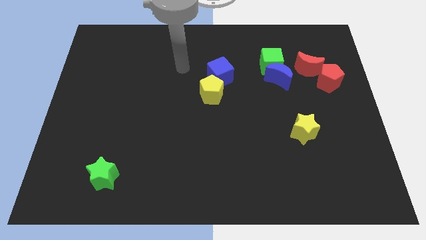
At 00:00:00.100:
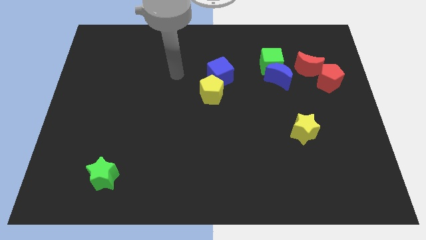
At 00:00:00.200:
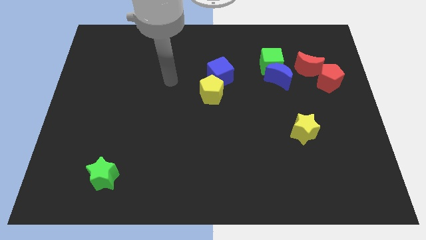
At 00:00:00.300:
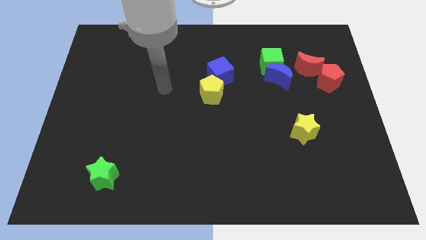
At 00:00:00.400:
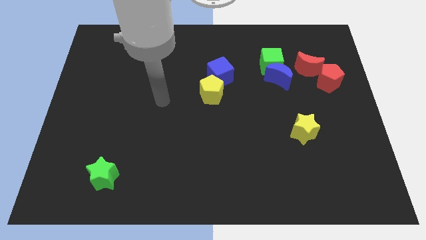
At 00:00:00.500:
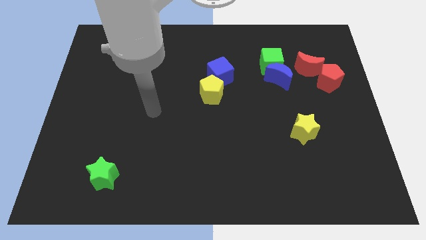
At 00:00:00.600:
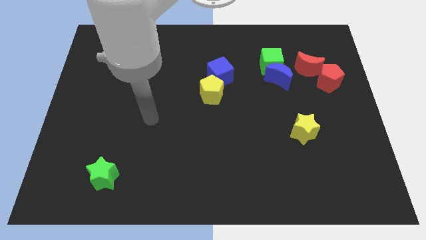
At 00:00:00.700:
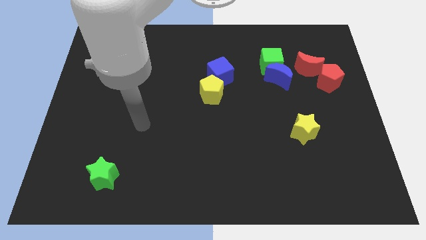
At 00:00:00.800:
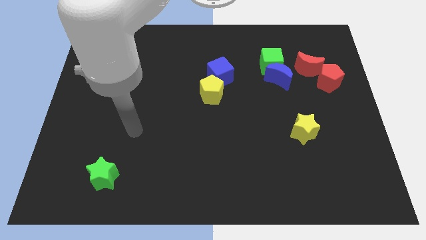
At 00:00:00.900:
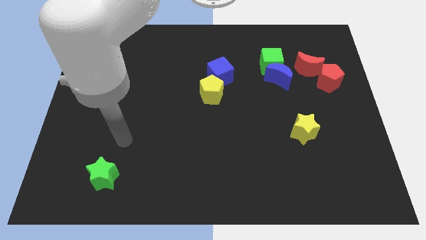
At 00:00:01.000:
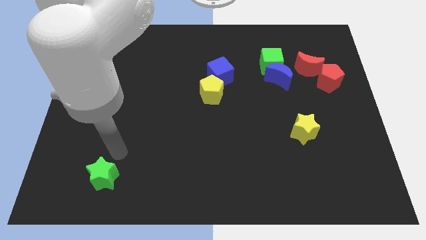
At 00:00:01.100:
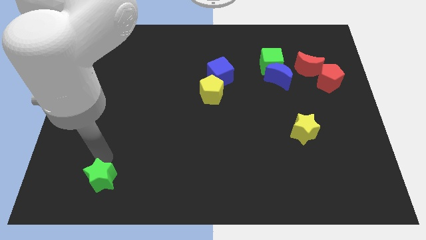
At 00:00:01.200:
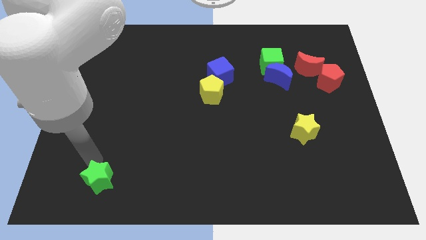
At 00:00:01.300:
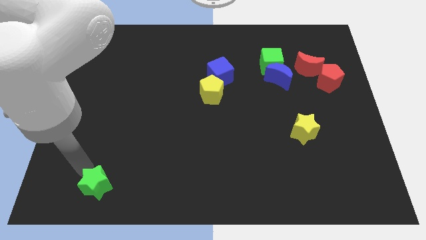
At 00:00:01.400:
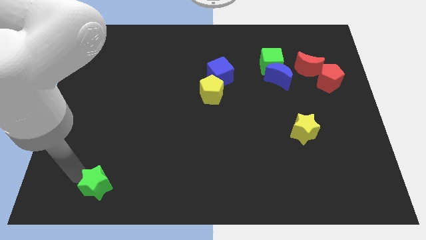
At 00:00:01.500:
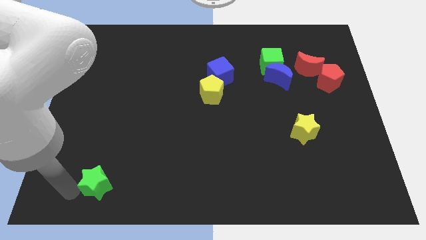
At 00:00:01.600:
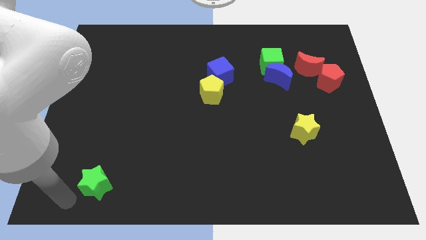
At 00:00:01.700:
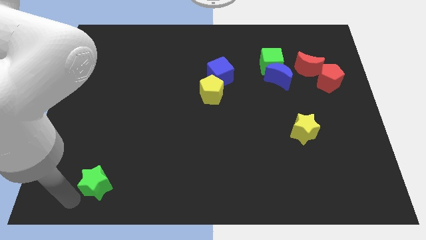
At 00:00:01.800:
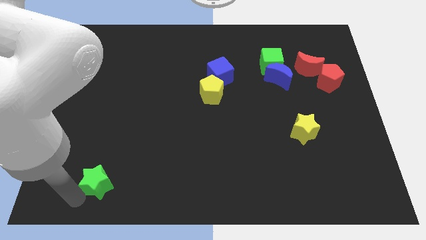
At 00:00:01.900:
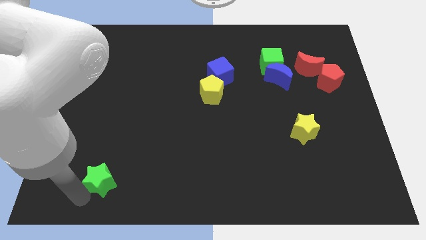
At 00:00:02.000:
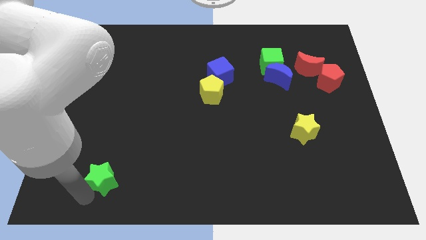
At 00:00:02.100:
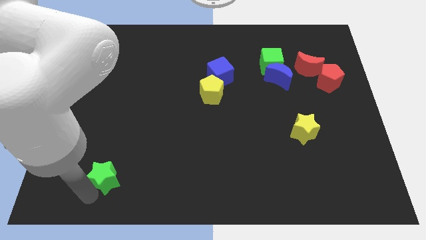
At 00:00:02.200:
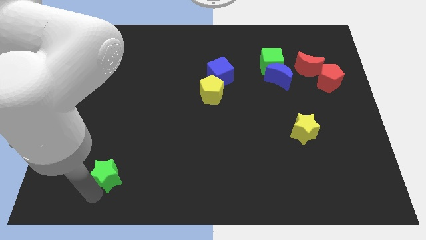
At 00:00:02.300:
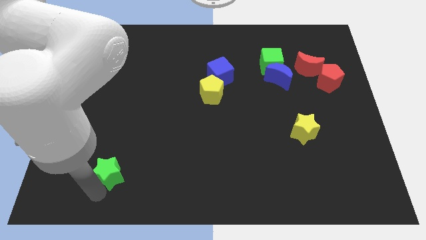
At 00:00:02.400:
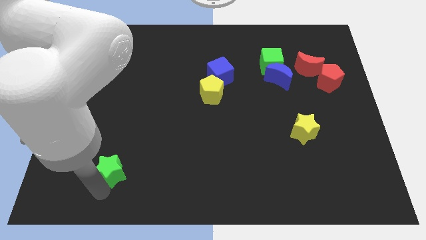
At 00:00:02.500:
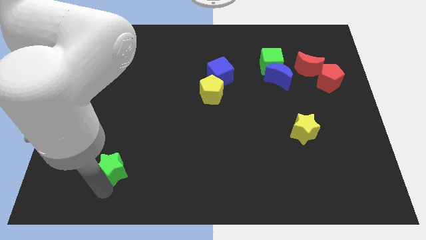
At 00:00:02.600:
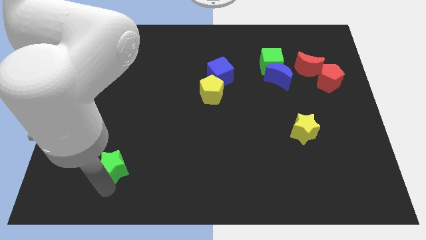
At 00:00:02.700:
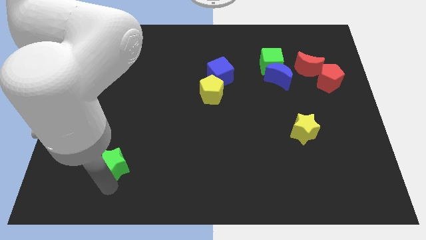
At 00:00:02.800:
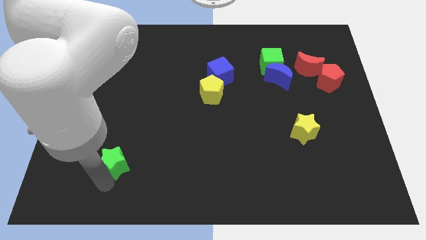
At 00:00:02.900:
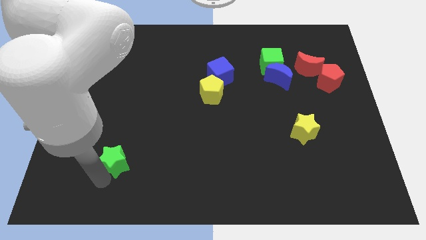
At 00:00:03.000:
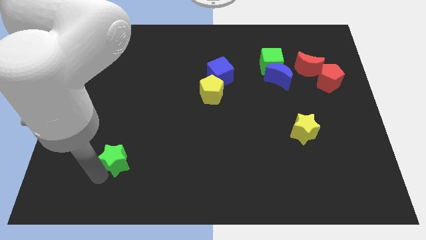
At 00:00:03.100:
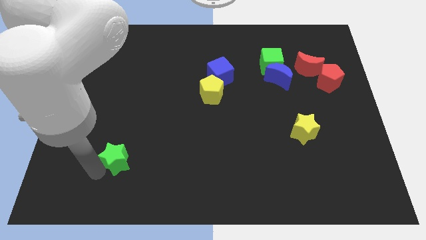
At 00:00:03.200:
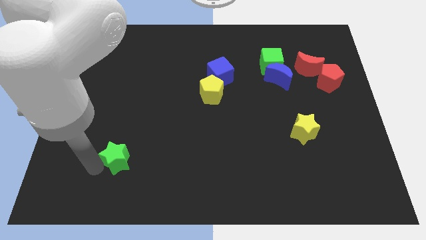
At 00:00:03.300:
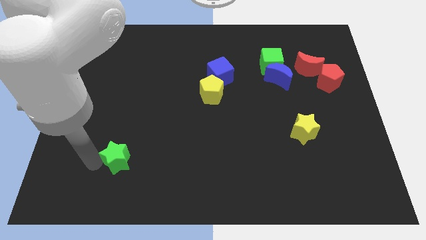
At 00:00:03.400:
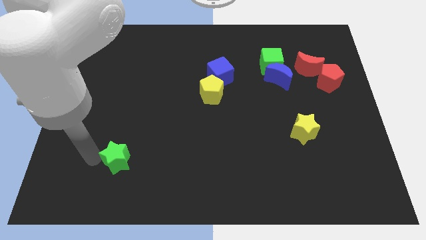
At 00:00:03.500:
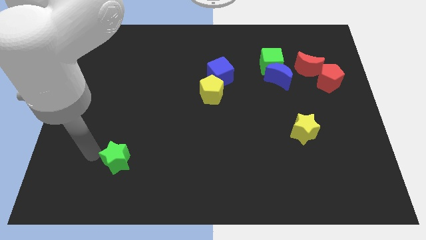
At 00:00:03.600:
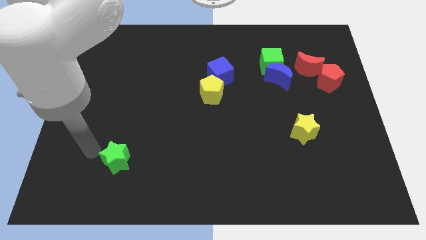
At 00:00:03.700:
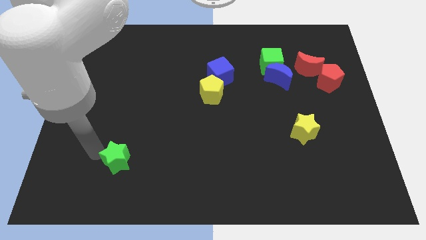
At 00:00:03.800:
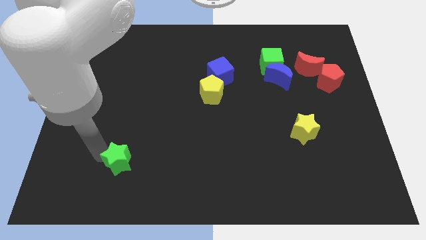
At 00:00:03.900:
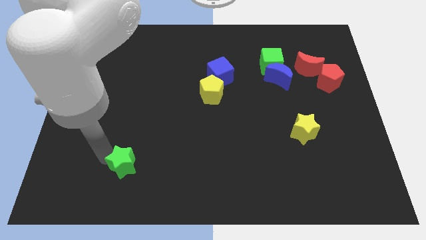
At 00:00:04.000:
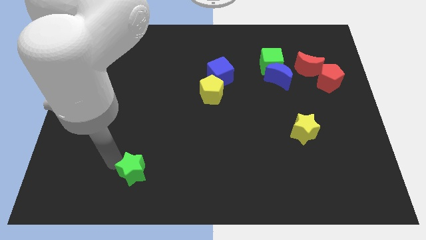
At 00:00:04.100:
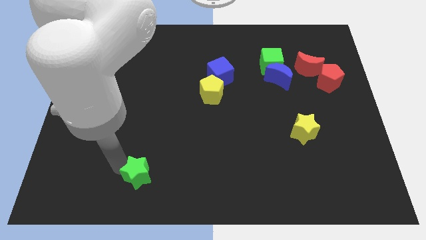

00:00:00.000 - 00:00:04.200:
move the green star right somewhat

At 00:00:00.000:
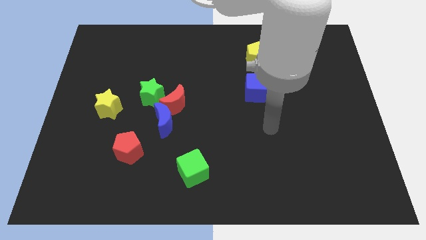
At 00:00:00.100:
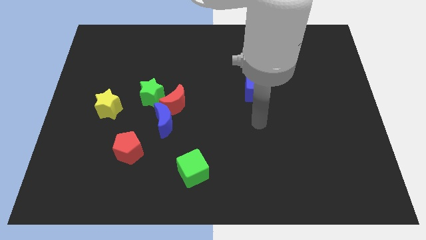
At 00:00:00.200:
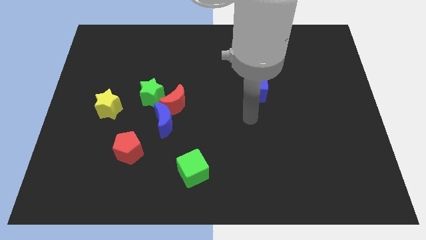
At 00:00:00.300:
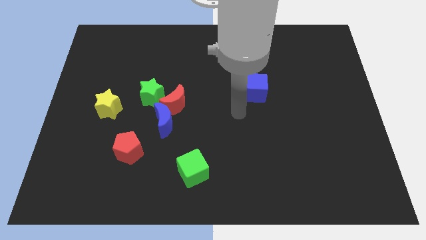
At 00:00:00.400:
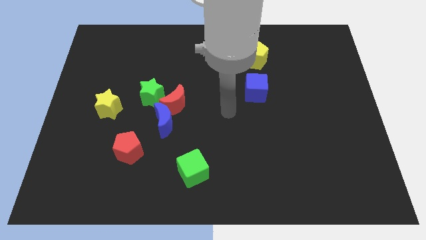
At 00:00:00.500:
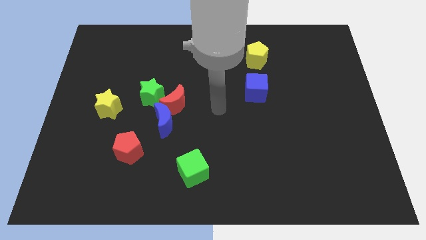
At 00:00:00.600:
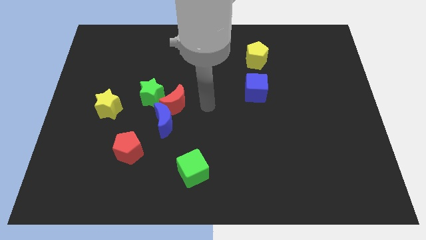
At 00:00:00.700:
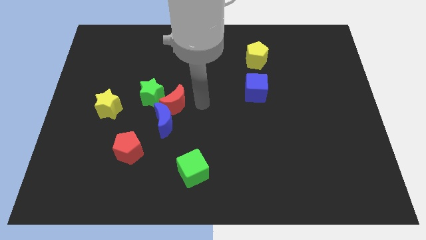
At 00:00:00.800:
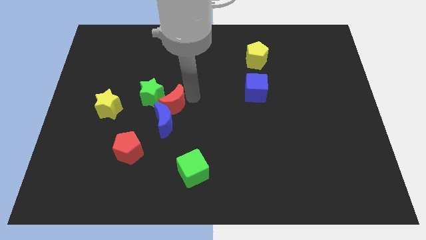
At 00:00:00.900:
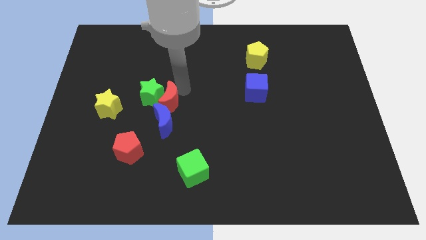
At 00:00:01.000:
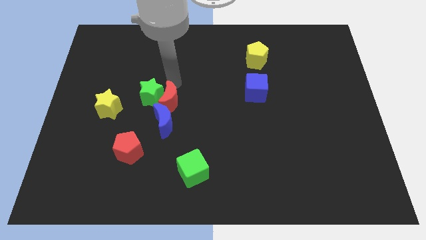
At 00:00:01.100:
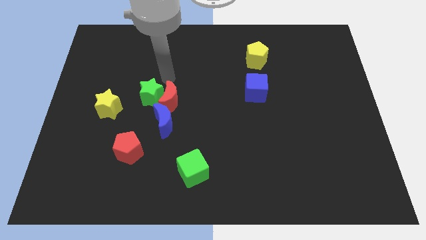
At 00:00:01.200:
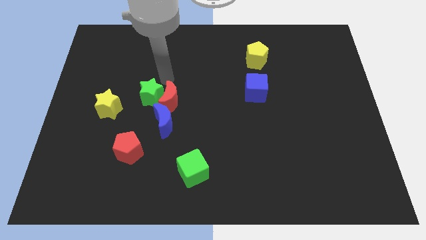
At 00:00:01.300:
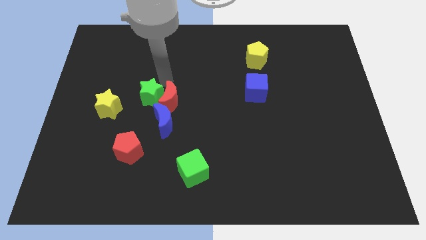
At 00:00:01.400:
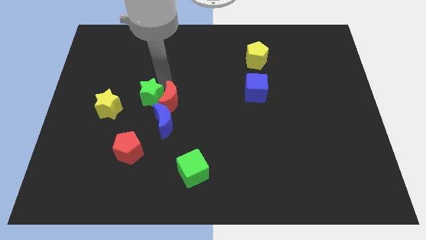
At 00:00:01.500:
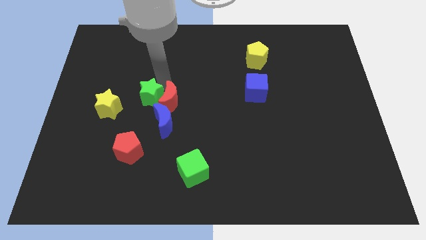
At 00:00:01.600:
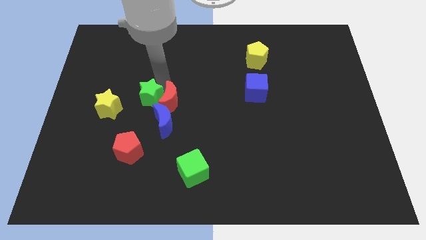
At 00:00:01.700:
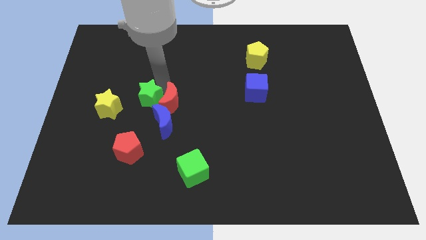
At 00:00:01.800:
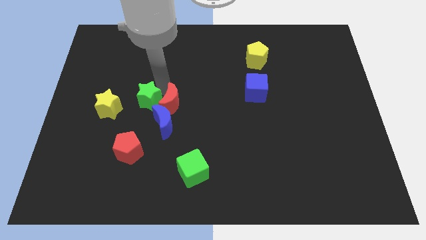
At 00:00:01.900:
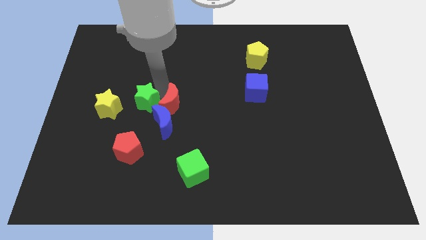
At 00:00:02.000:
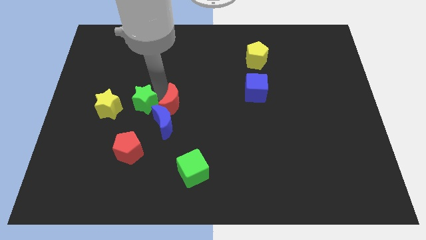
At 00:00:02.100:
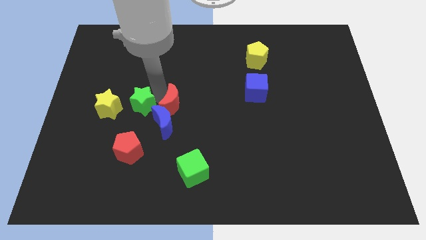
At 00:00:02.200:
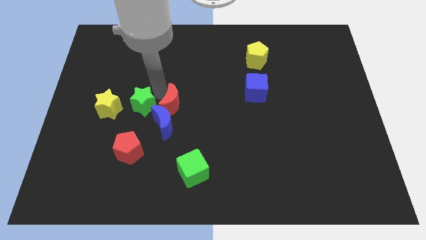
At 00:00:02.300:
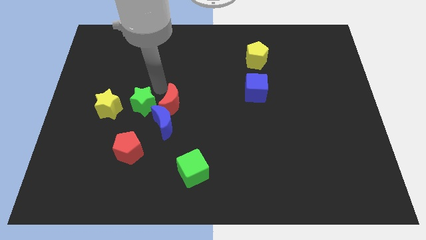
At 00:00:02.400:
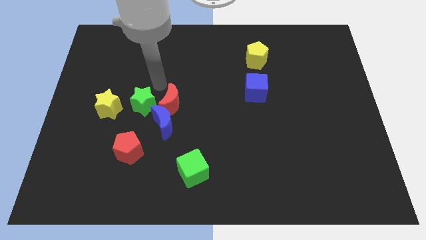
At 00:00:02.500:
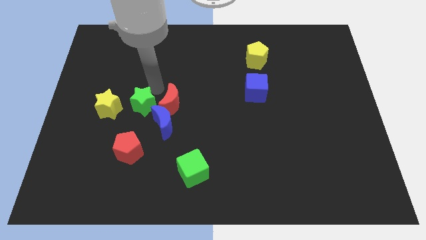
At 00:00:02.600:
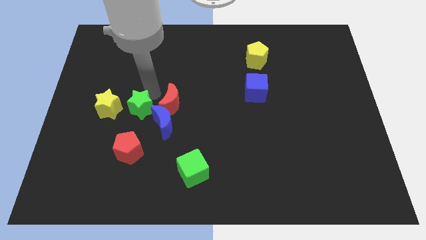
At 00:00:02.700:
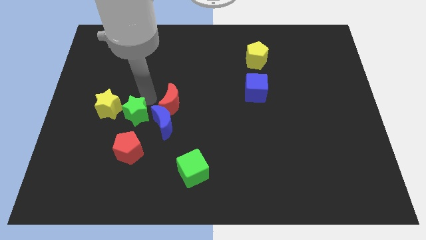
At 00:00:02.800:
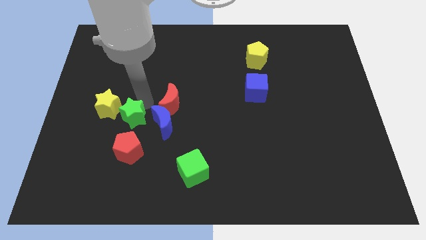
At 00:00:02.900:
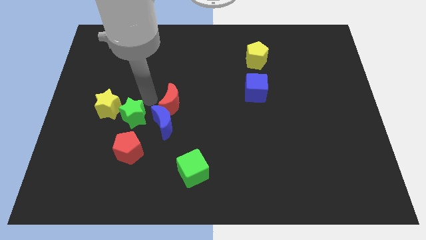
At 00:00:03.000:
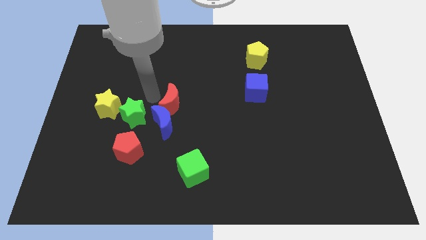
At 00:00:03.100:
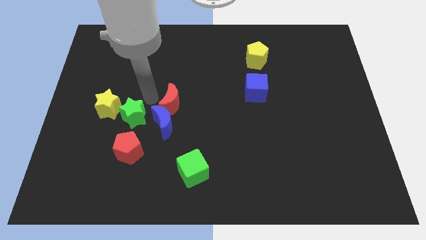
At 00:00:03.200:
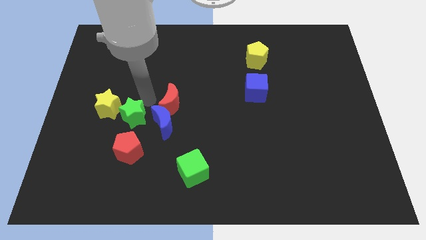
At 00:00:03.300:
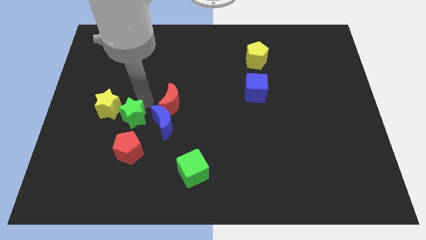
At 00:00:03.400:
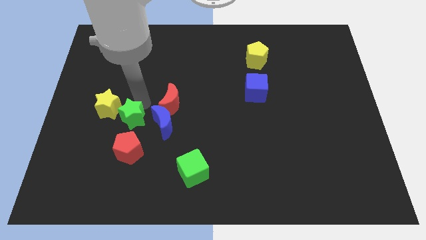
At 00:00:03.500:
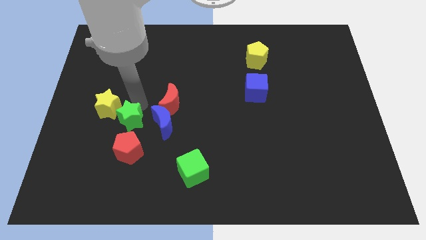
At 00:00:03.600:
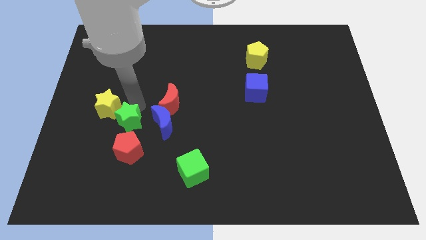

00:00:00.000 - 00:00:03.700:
push the green star somewhat downwards
